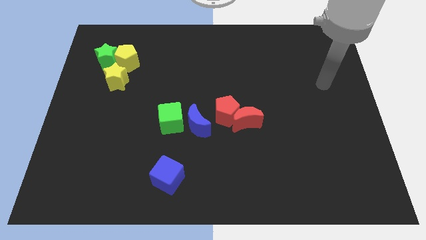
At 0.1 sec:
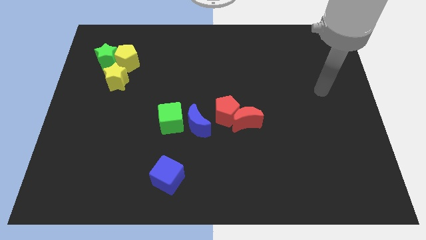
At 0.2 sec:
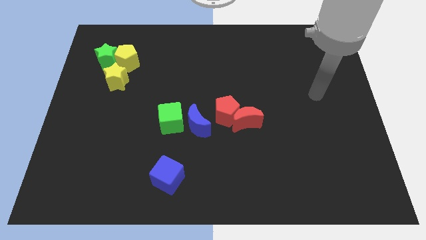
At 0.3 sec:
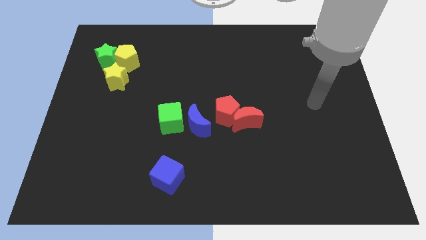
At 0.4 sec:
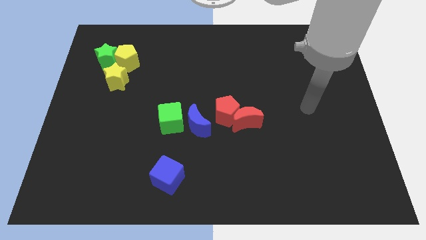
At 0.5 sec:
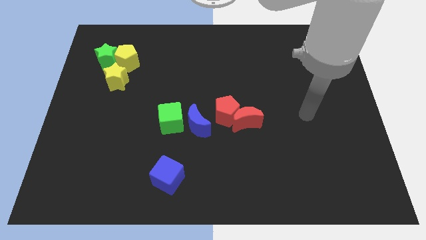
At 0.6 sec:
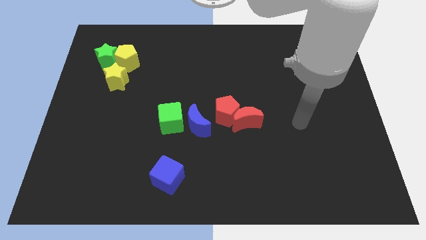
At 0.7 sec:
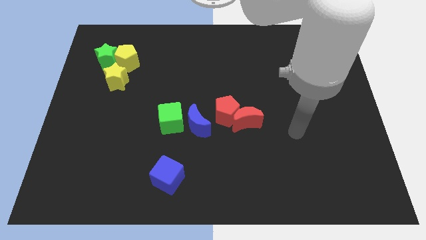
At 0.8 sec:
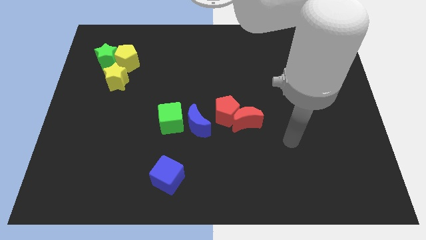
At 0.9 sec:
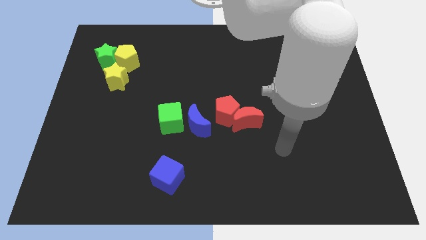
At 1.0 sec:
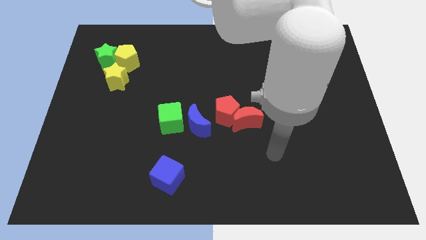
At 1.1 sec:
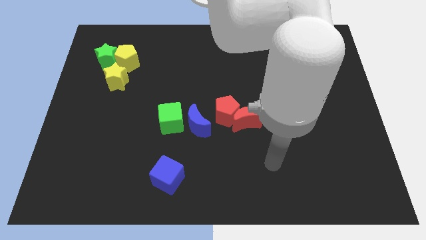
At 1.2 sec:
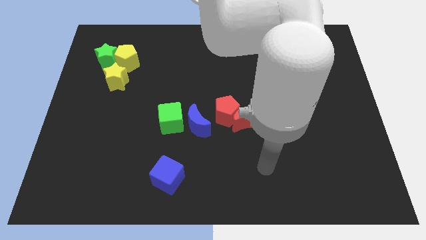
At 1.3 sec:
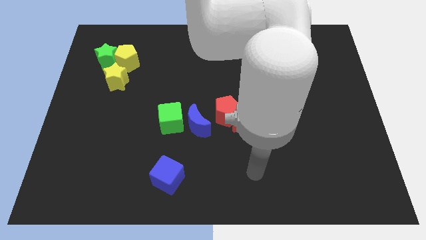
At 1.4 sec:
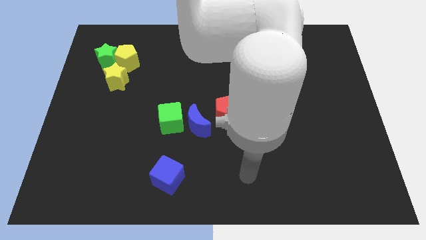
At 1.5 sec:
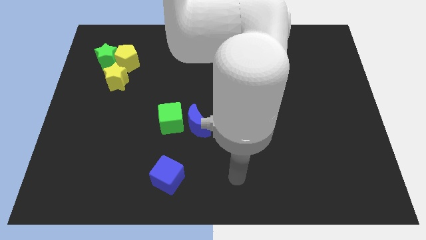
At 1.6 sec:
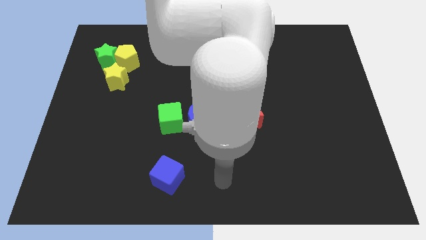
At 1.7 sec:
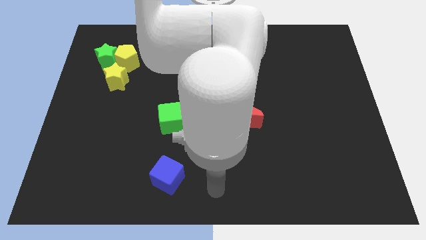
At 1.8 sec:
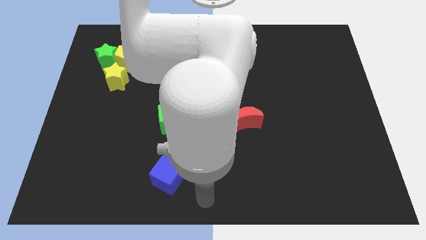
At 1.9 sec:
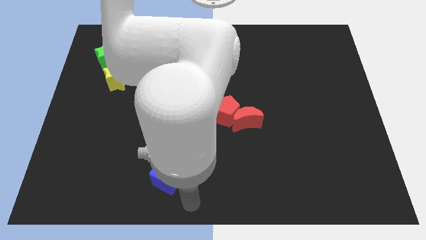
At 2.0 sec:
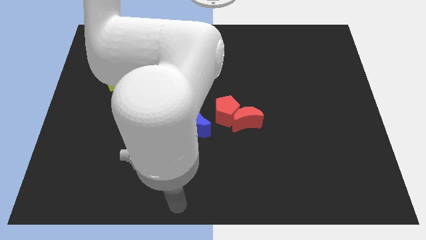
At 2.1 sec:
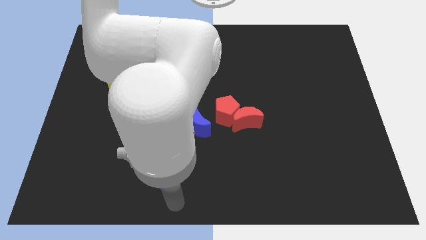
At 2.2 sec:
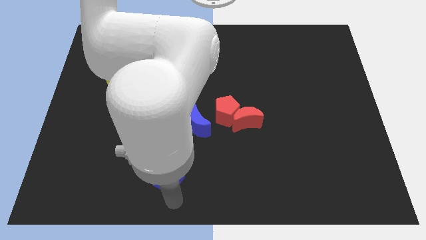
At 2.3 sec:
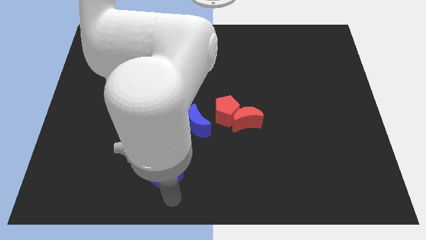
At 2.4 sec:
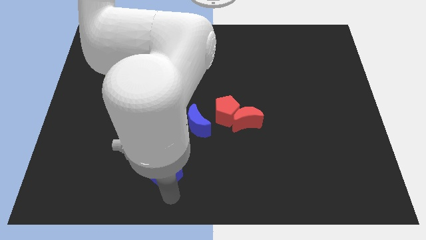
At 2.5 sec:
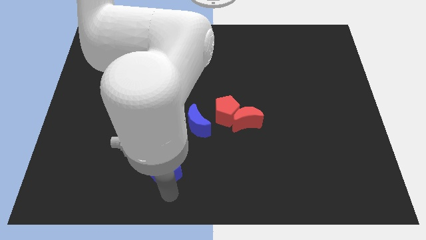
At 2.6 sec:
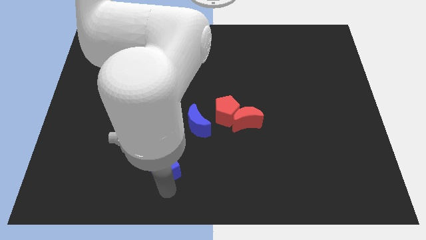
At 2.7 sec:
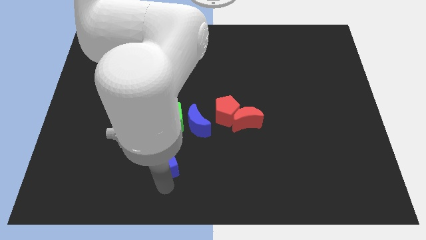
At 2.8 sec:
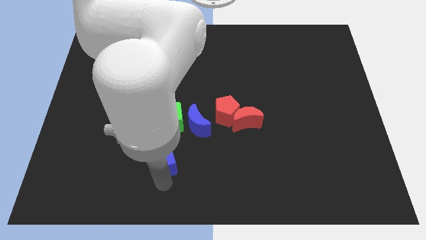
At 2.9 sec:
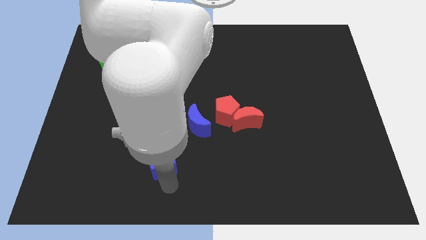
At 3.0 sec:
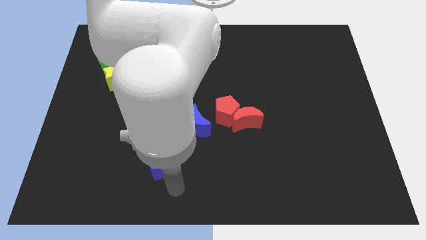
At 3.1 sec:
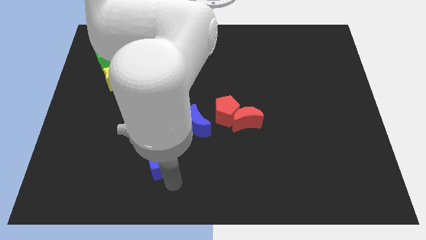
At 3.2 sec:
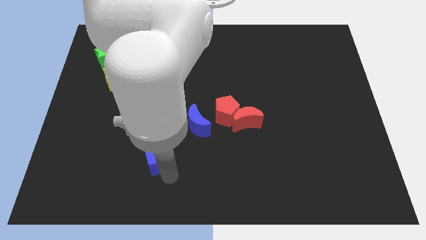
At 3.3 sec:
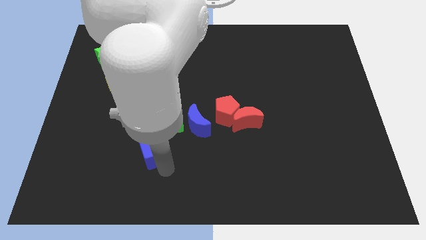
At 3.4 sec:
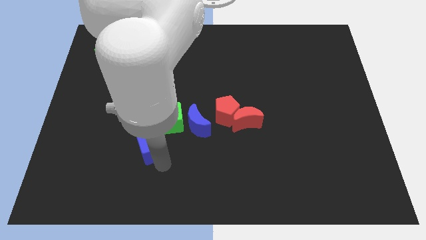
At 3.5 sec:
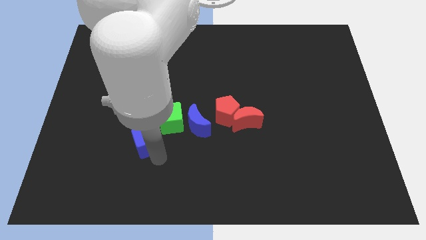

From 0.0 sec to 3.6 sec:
move the blue cube a little bit upwards

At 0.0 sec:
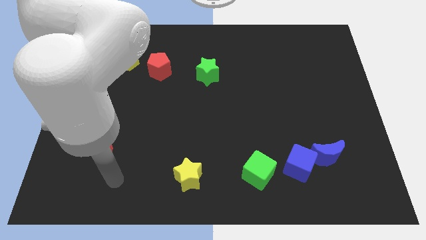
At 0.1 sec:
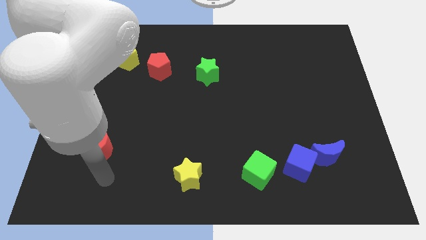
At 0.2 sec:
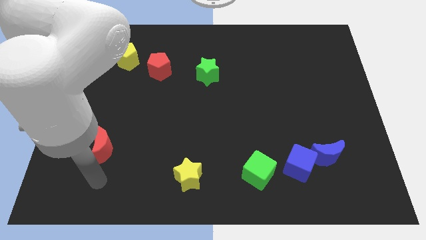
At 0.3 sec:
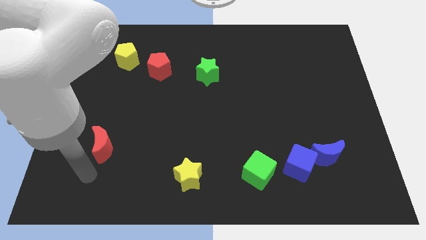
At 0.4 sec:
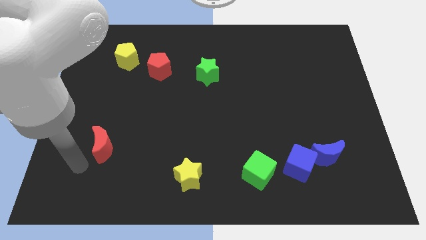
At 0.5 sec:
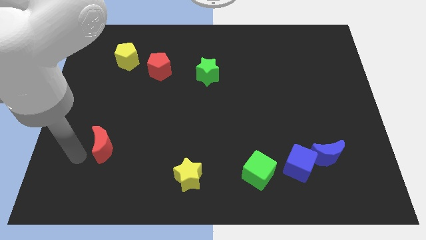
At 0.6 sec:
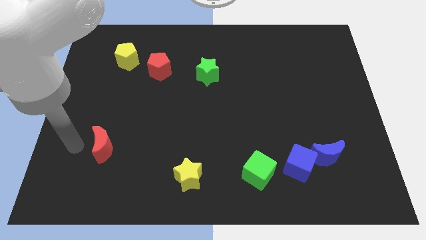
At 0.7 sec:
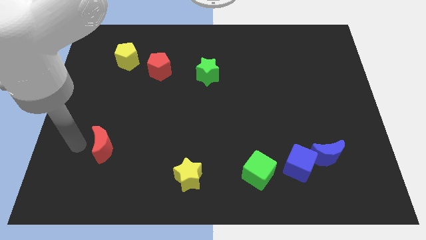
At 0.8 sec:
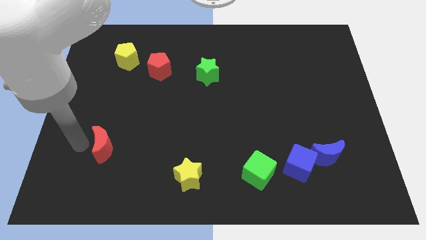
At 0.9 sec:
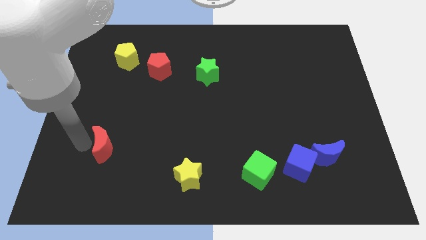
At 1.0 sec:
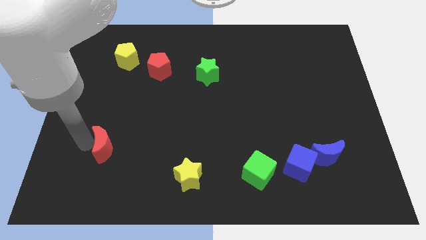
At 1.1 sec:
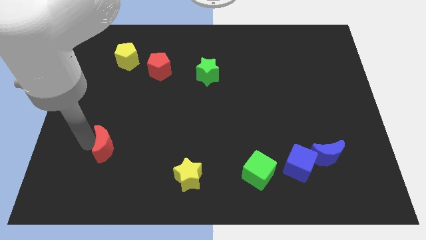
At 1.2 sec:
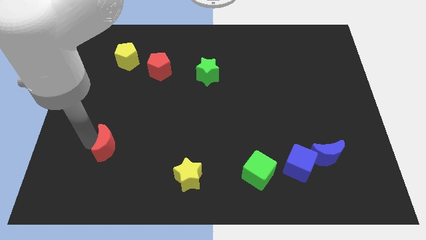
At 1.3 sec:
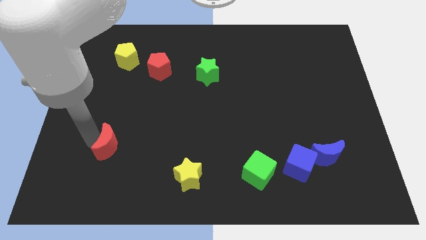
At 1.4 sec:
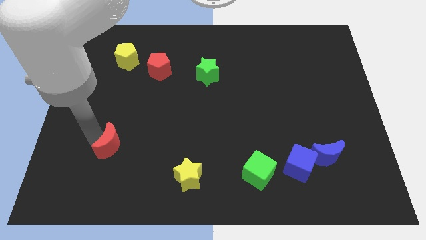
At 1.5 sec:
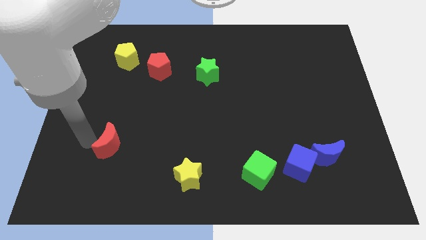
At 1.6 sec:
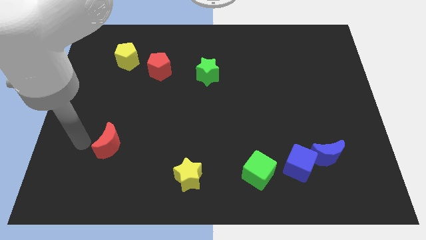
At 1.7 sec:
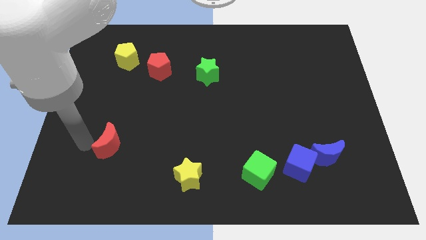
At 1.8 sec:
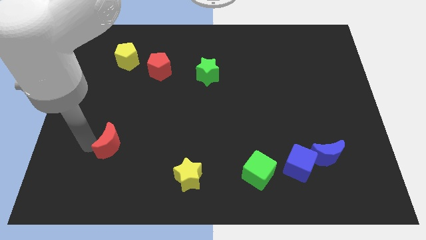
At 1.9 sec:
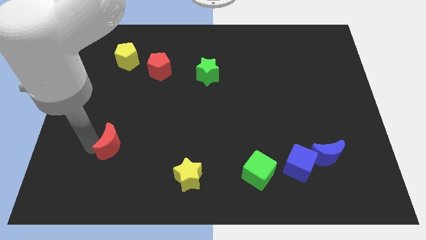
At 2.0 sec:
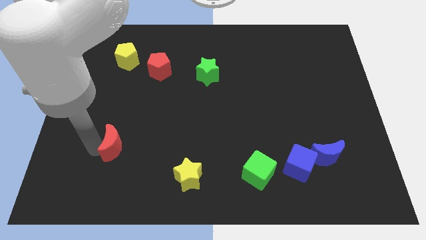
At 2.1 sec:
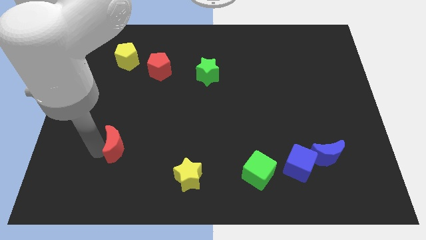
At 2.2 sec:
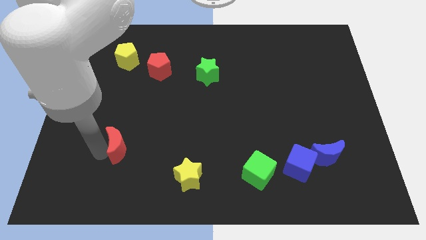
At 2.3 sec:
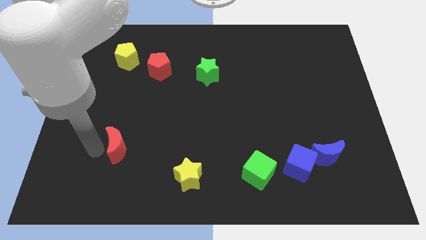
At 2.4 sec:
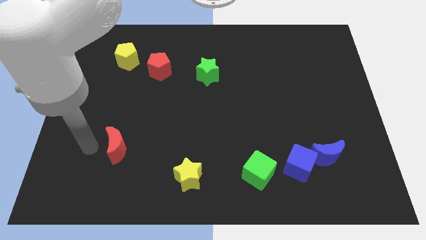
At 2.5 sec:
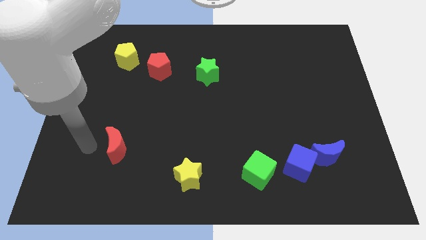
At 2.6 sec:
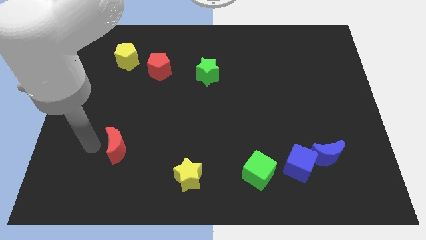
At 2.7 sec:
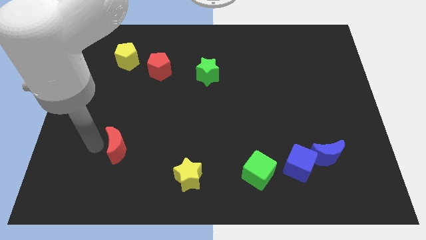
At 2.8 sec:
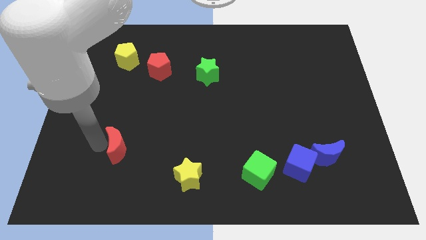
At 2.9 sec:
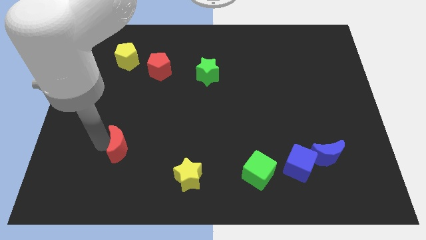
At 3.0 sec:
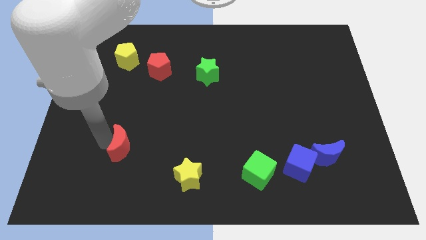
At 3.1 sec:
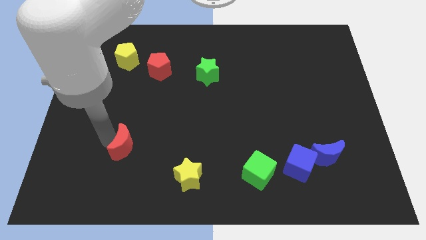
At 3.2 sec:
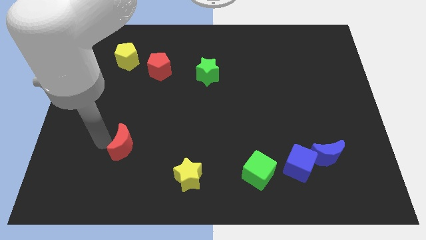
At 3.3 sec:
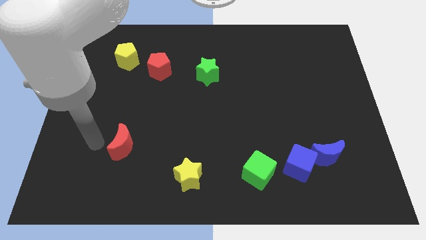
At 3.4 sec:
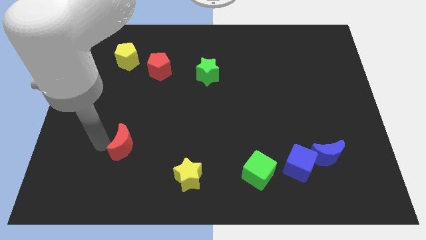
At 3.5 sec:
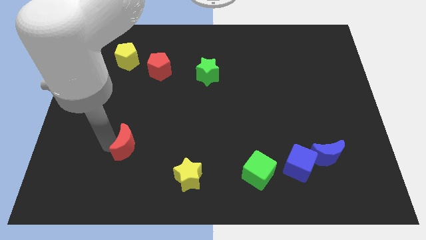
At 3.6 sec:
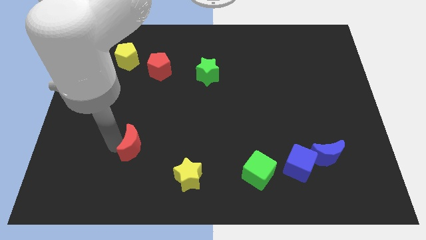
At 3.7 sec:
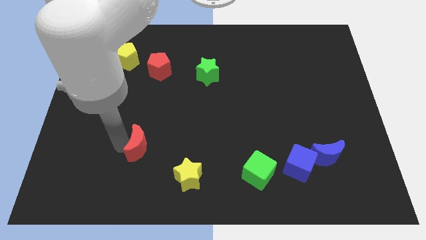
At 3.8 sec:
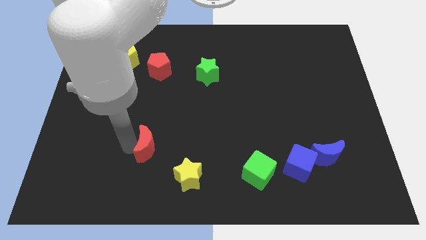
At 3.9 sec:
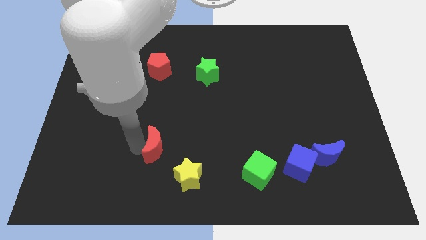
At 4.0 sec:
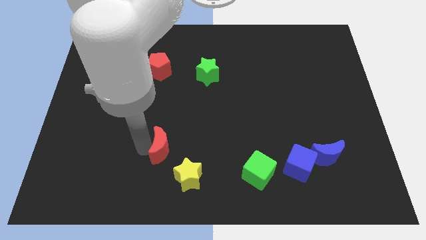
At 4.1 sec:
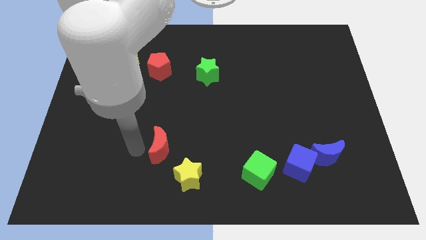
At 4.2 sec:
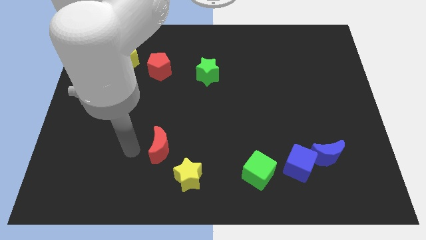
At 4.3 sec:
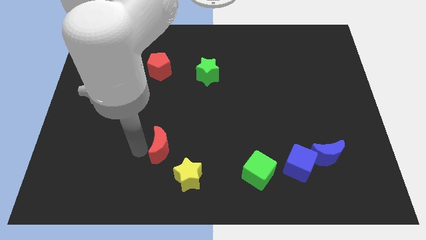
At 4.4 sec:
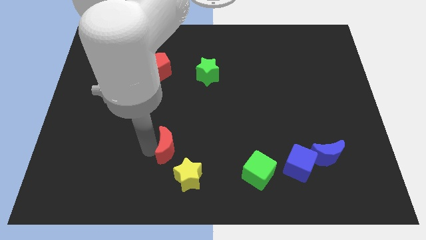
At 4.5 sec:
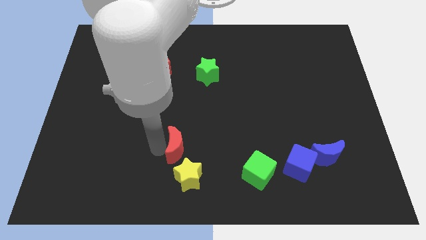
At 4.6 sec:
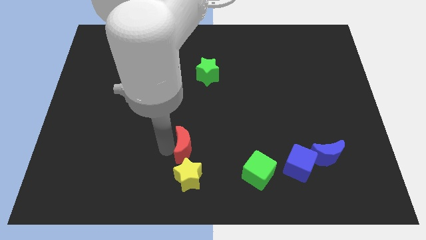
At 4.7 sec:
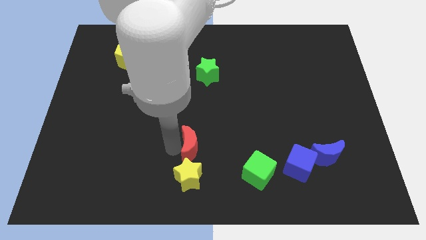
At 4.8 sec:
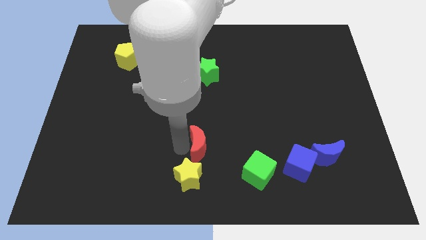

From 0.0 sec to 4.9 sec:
push the red moon right
